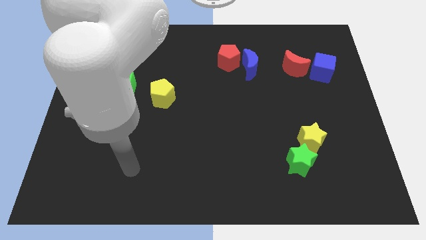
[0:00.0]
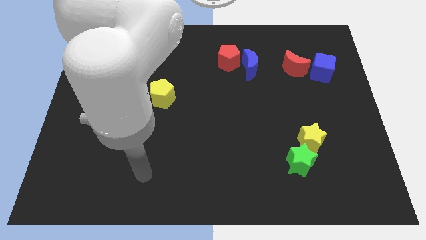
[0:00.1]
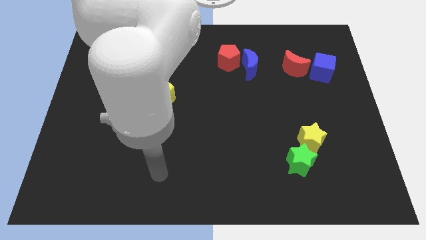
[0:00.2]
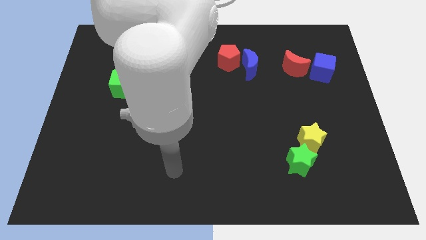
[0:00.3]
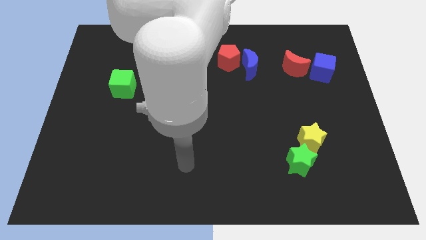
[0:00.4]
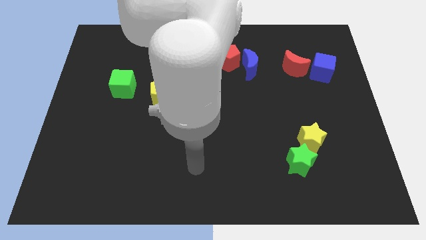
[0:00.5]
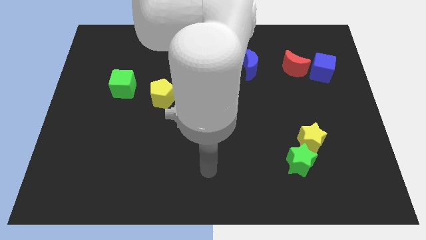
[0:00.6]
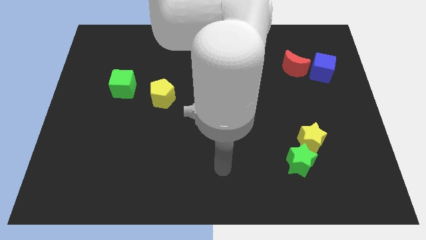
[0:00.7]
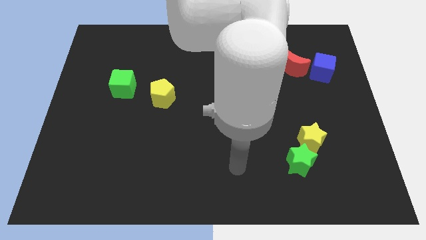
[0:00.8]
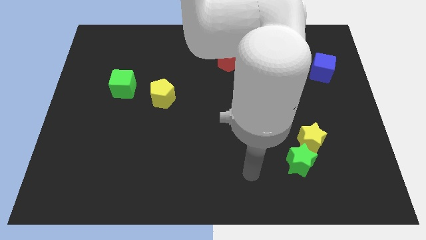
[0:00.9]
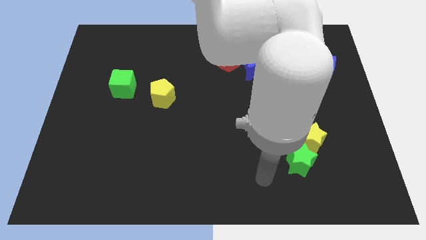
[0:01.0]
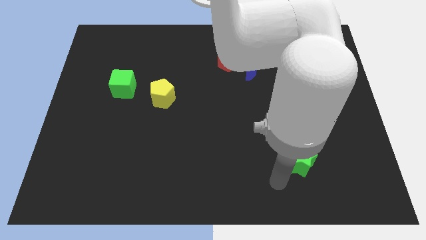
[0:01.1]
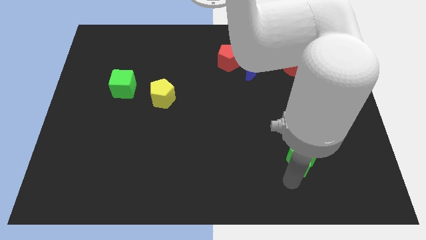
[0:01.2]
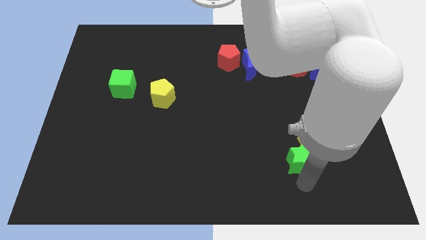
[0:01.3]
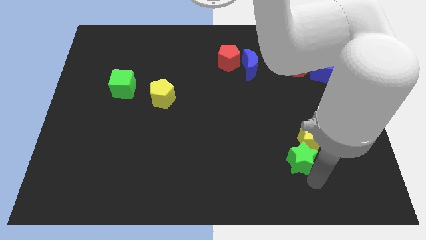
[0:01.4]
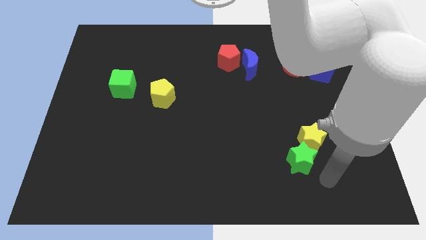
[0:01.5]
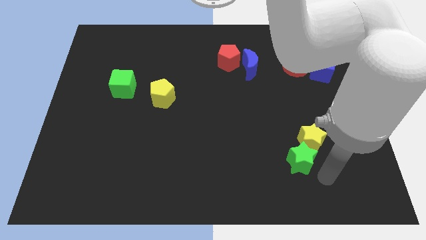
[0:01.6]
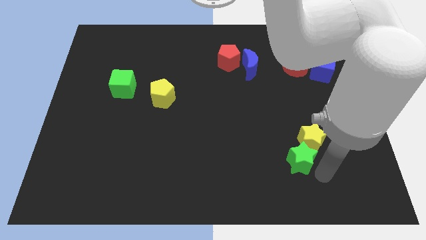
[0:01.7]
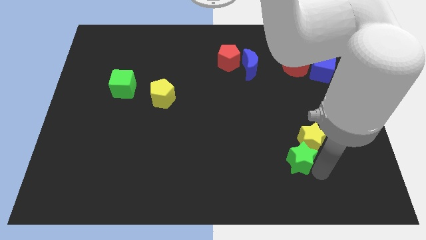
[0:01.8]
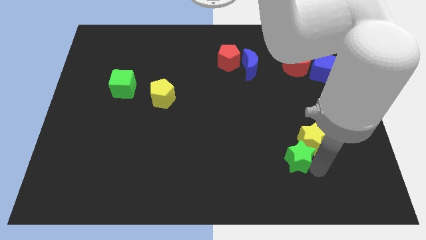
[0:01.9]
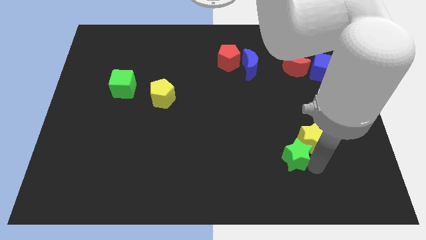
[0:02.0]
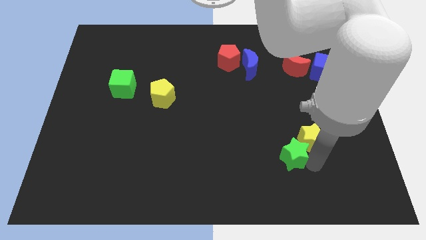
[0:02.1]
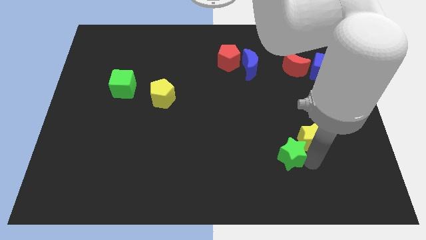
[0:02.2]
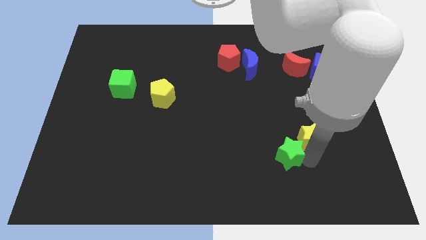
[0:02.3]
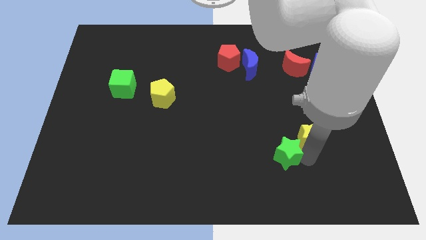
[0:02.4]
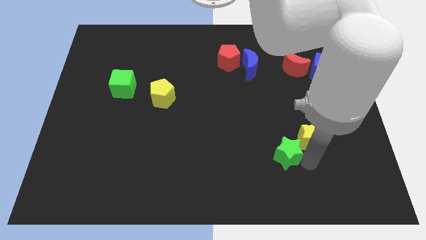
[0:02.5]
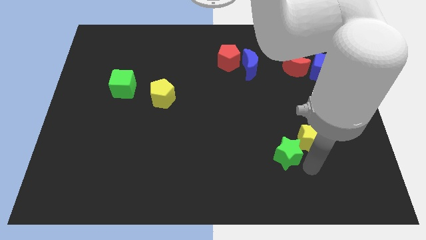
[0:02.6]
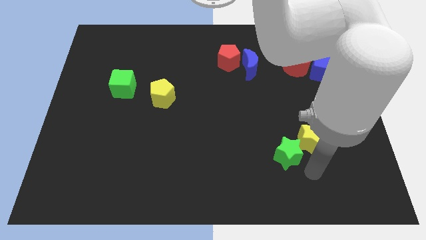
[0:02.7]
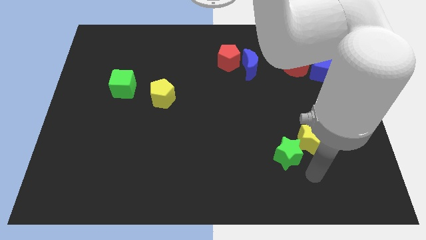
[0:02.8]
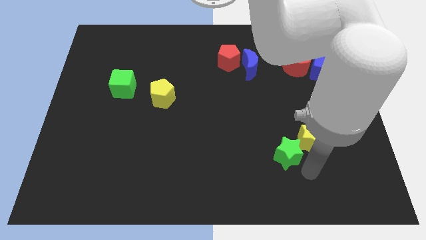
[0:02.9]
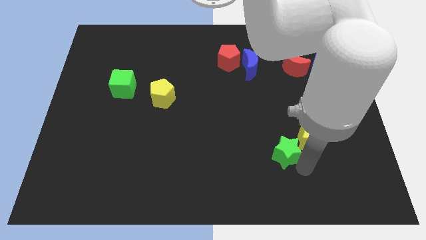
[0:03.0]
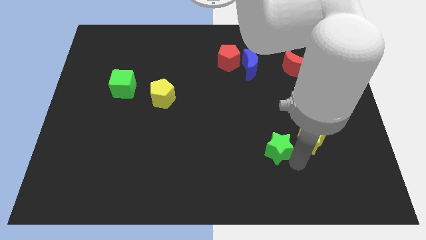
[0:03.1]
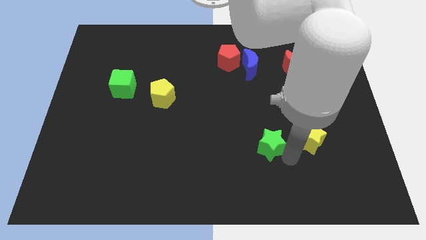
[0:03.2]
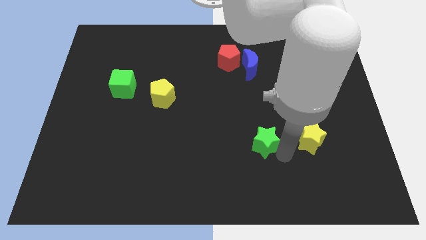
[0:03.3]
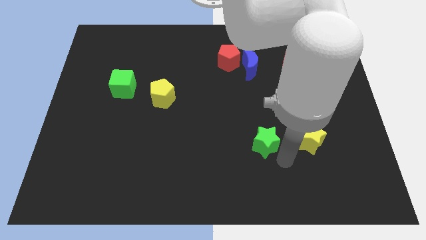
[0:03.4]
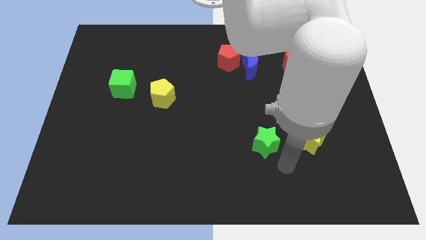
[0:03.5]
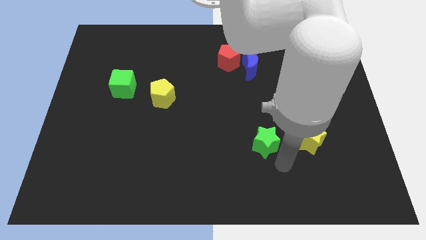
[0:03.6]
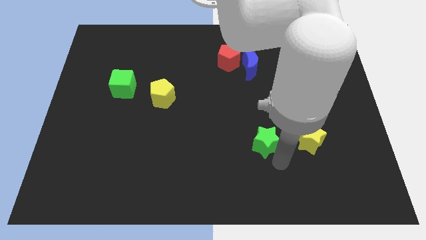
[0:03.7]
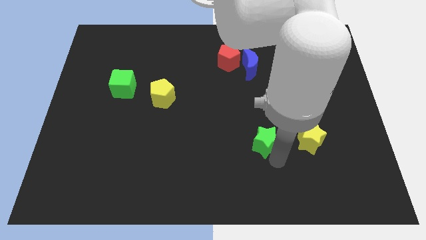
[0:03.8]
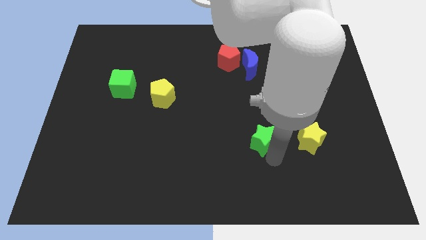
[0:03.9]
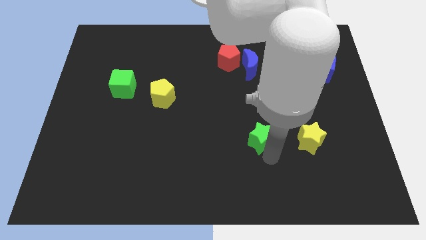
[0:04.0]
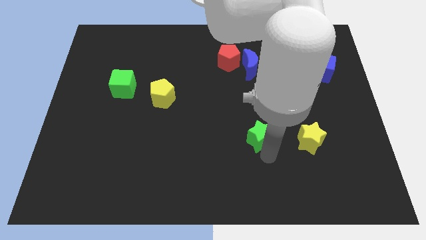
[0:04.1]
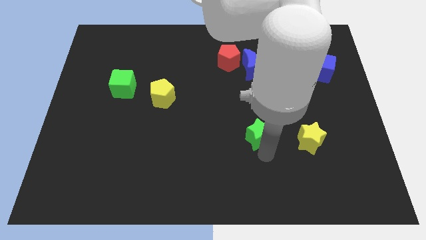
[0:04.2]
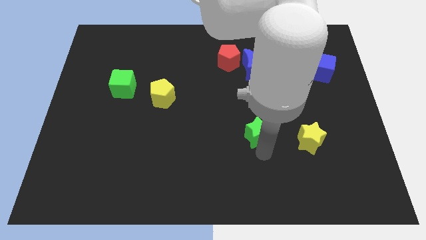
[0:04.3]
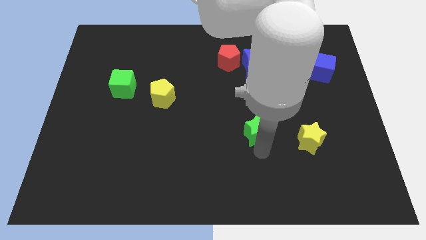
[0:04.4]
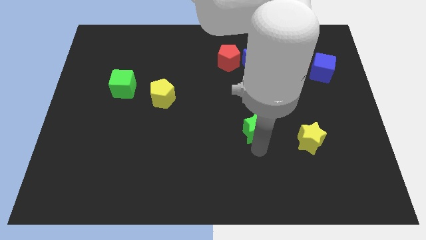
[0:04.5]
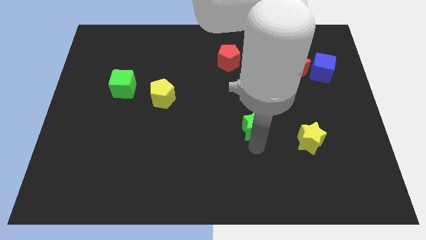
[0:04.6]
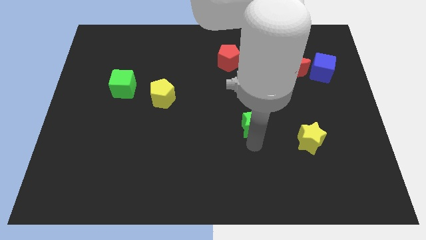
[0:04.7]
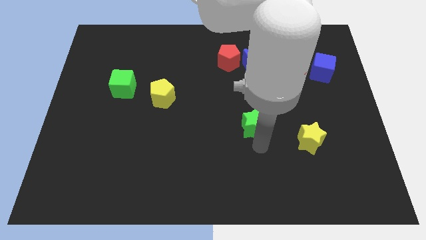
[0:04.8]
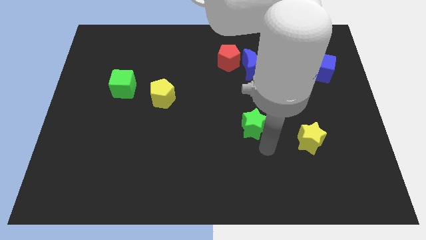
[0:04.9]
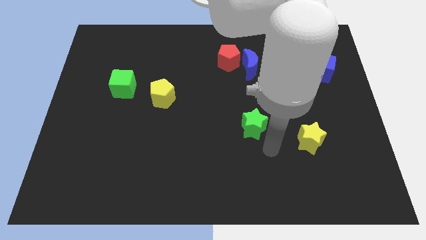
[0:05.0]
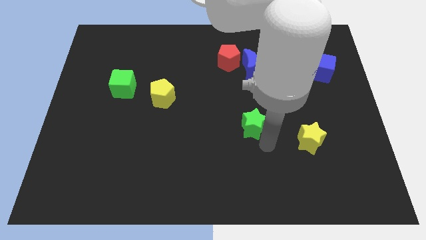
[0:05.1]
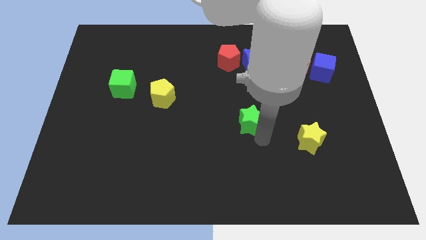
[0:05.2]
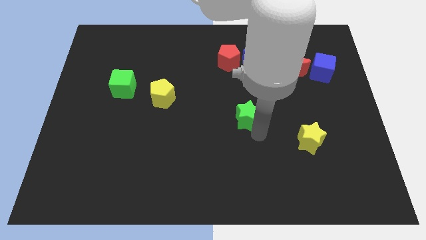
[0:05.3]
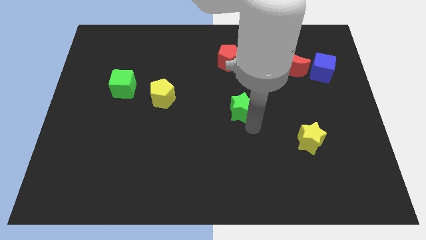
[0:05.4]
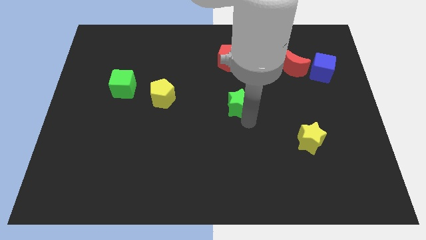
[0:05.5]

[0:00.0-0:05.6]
move the green star to the bottom side of the red pentagon

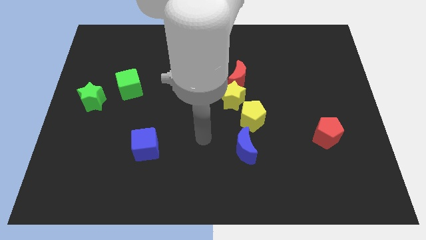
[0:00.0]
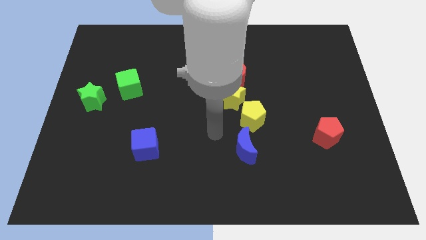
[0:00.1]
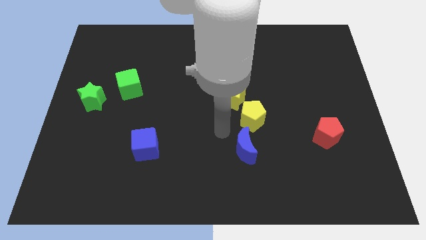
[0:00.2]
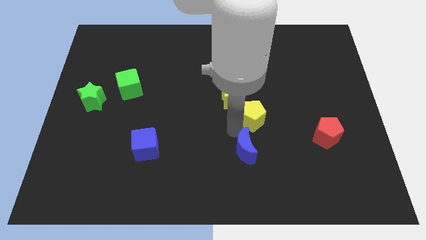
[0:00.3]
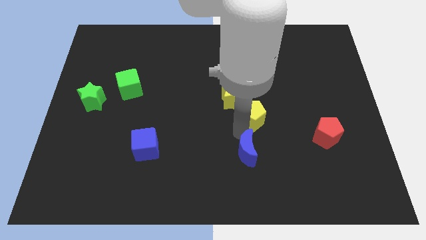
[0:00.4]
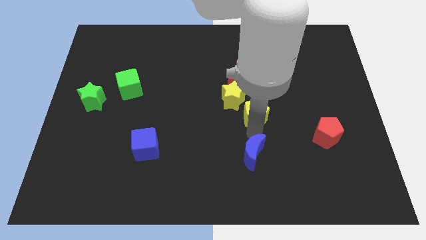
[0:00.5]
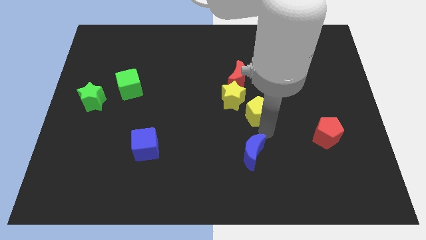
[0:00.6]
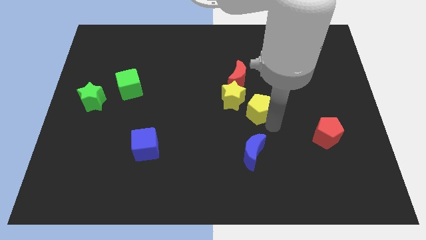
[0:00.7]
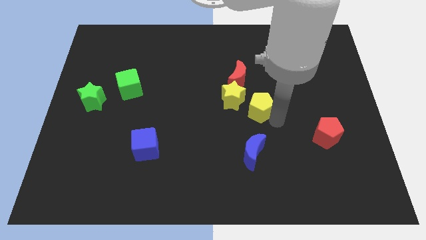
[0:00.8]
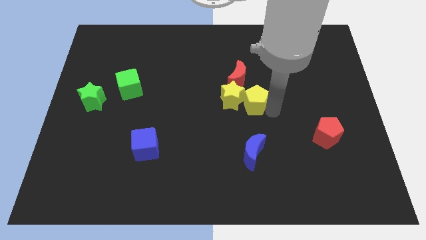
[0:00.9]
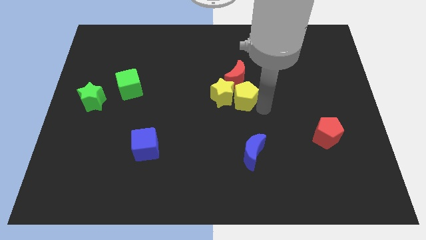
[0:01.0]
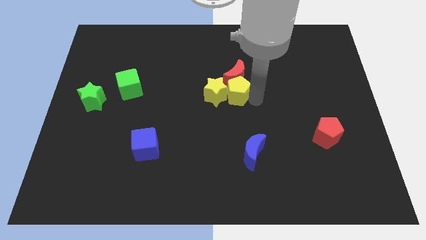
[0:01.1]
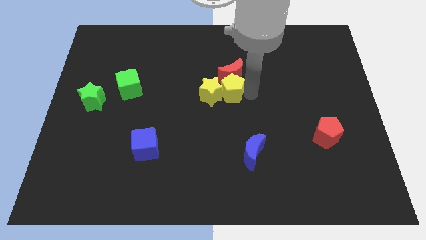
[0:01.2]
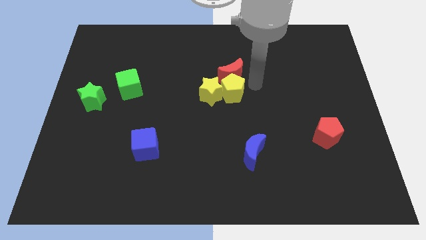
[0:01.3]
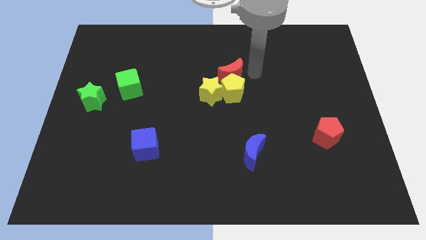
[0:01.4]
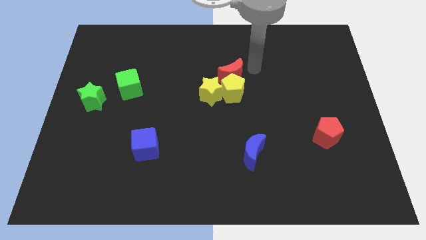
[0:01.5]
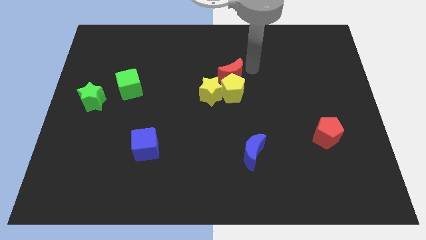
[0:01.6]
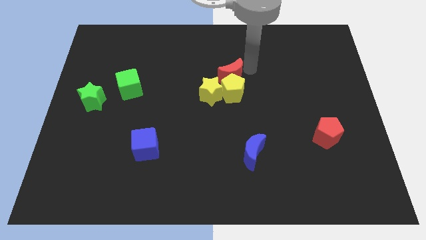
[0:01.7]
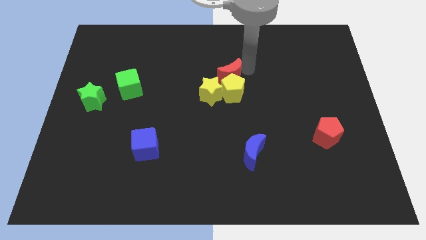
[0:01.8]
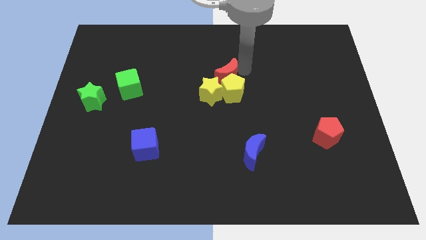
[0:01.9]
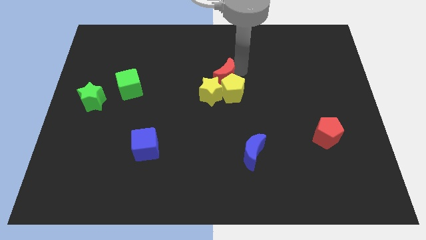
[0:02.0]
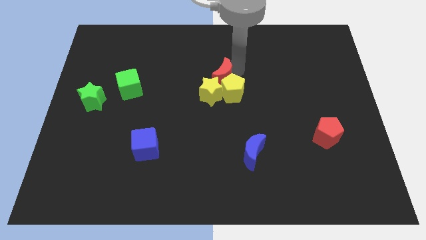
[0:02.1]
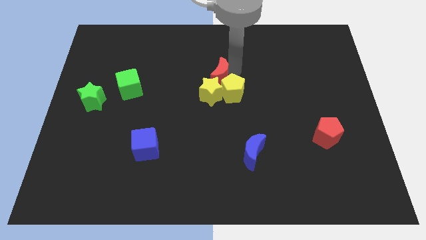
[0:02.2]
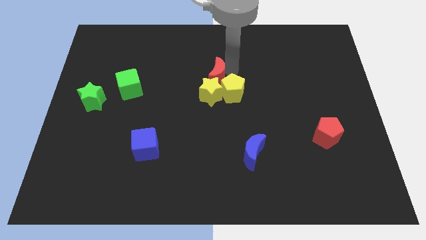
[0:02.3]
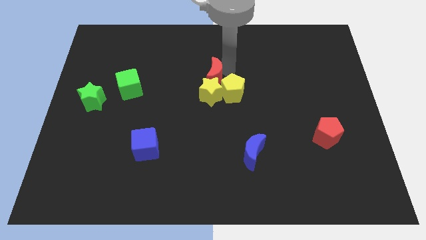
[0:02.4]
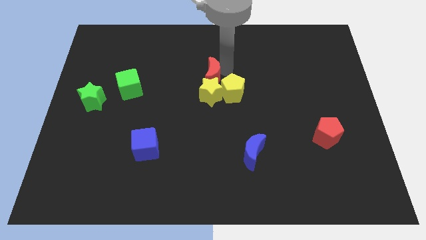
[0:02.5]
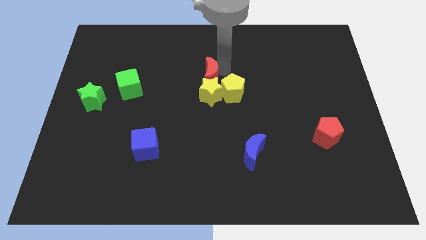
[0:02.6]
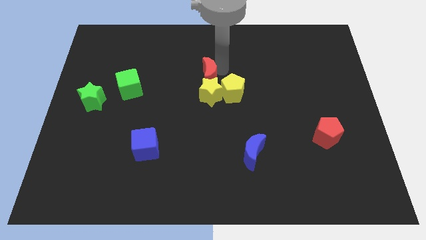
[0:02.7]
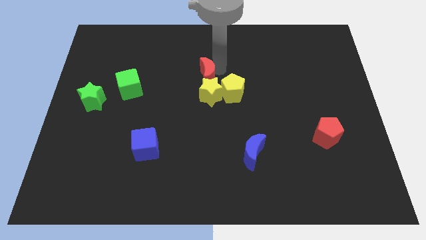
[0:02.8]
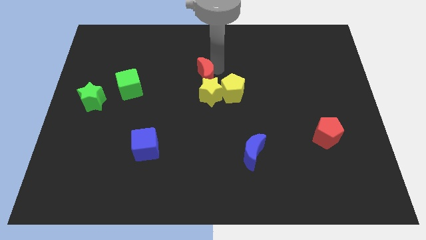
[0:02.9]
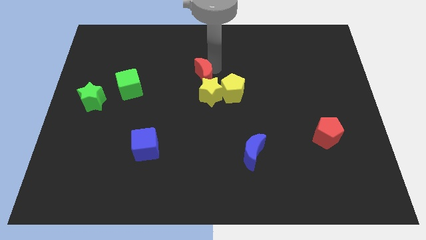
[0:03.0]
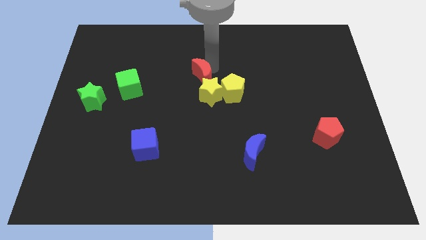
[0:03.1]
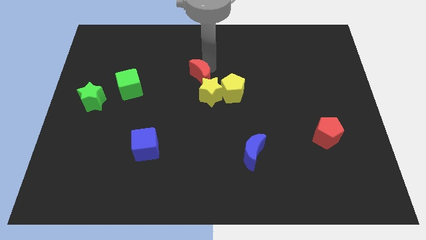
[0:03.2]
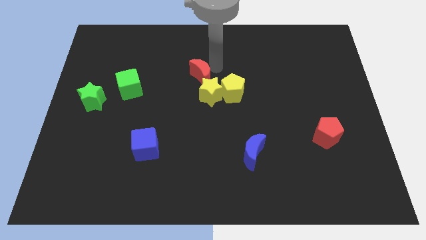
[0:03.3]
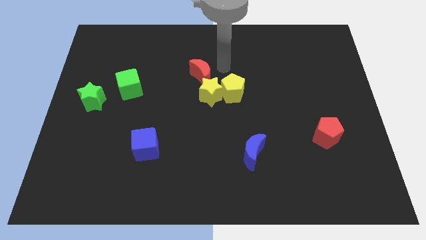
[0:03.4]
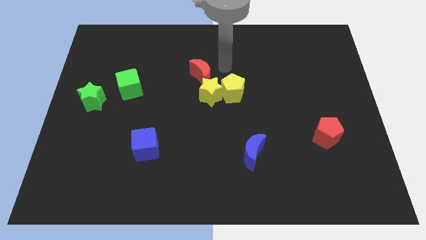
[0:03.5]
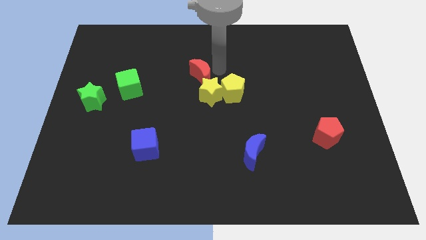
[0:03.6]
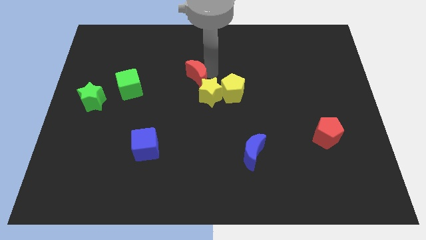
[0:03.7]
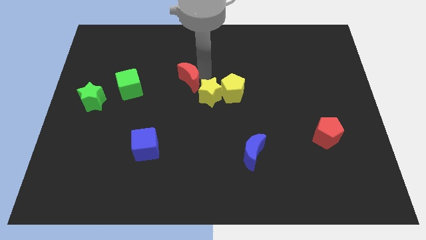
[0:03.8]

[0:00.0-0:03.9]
slide the red moon to the right side of the green cube
